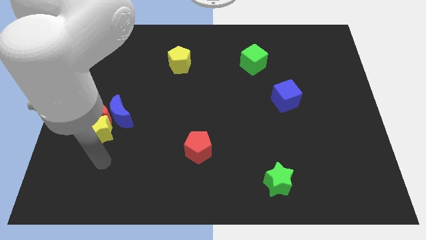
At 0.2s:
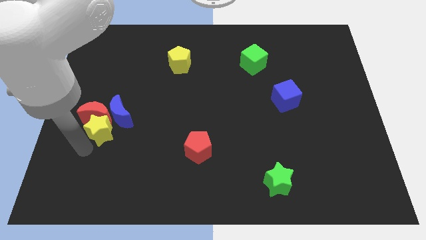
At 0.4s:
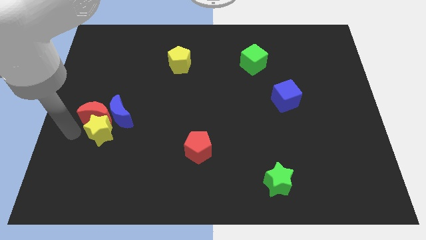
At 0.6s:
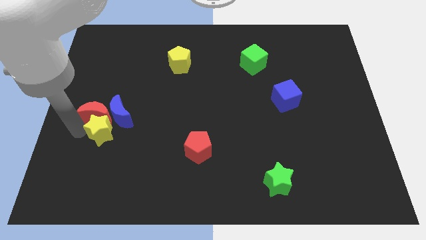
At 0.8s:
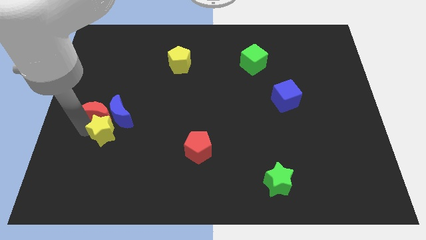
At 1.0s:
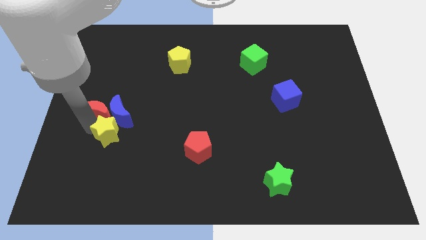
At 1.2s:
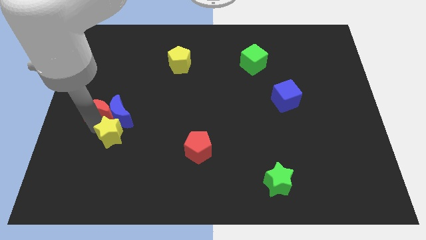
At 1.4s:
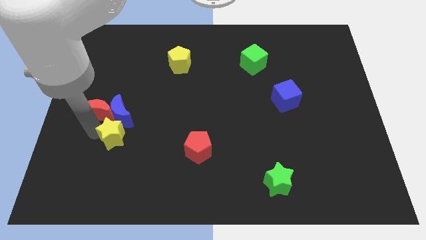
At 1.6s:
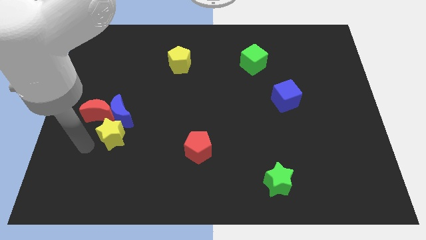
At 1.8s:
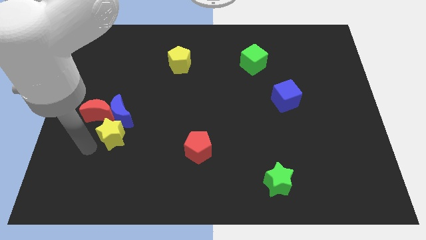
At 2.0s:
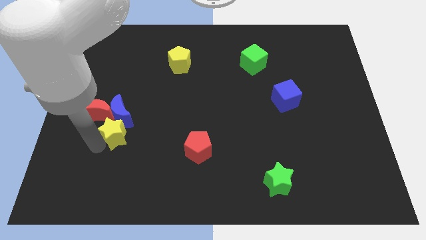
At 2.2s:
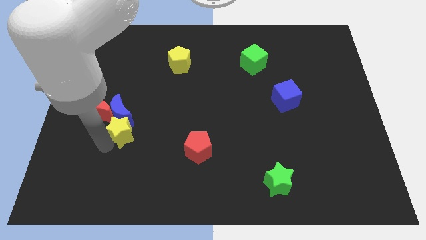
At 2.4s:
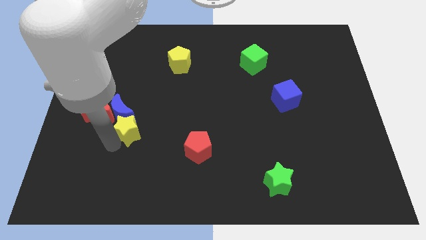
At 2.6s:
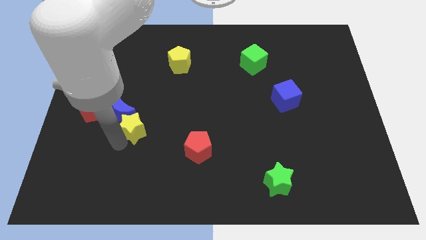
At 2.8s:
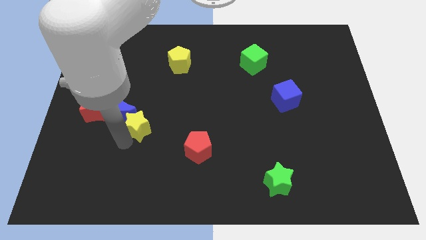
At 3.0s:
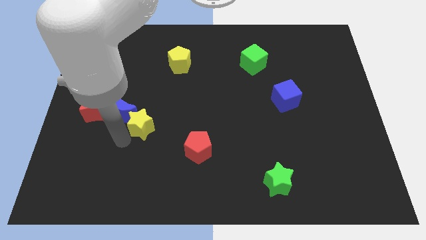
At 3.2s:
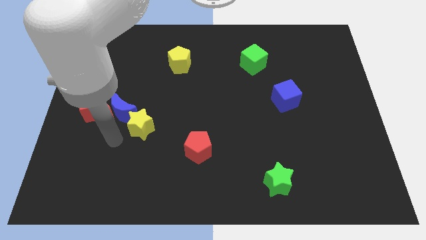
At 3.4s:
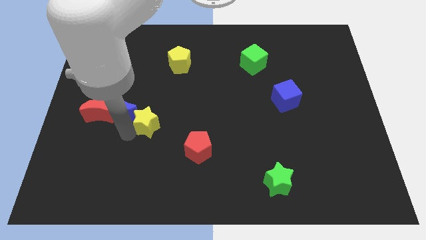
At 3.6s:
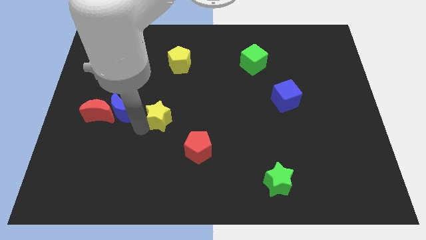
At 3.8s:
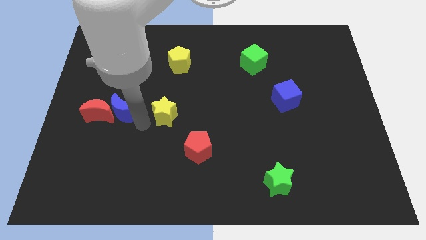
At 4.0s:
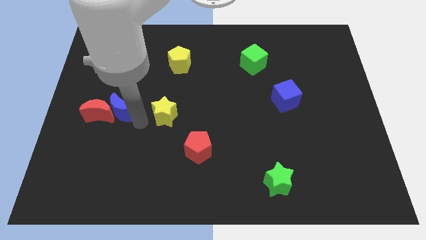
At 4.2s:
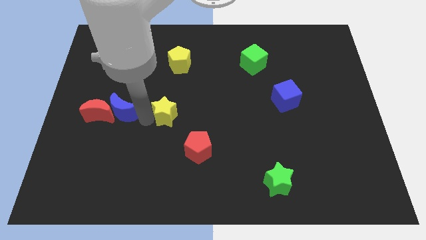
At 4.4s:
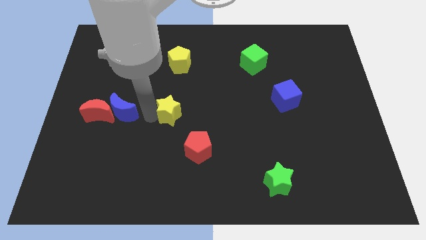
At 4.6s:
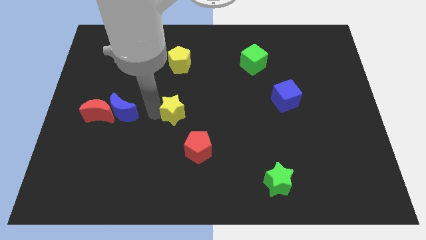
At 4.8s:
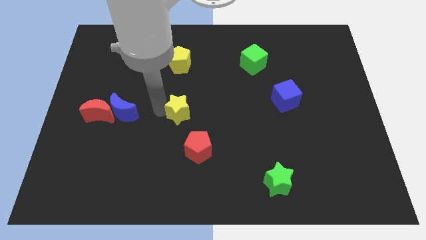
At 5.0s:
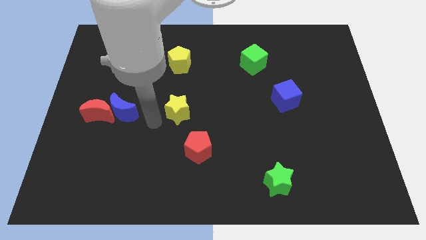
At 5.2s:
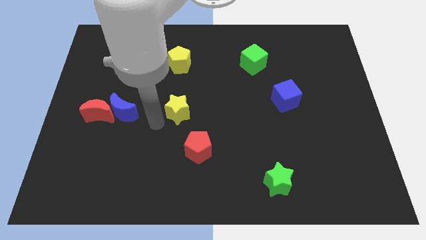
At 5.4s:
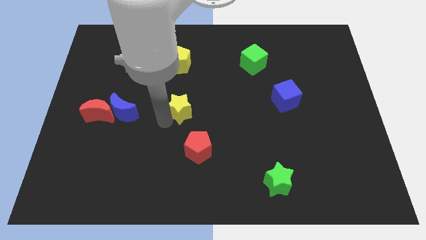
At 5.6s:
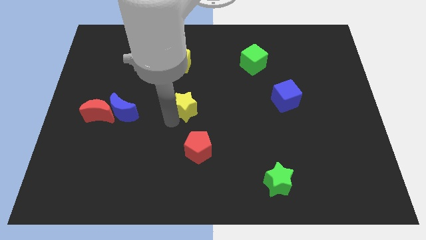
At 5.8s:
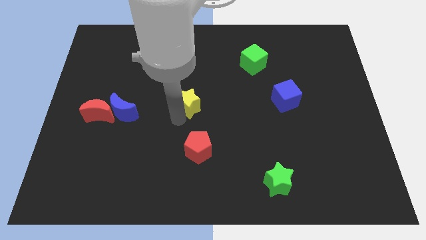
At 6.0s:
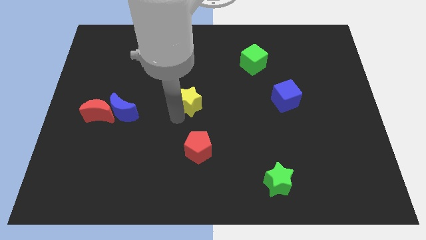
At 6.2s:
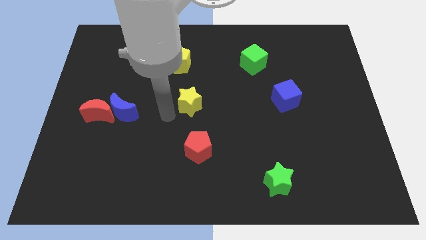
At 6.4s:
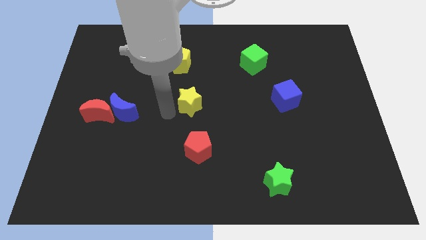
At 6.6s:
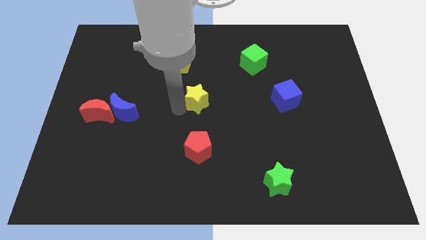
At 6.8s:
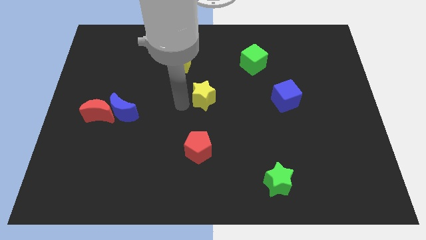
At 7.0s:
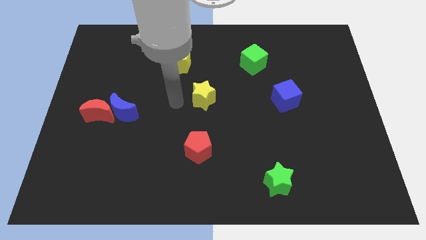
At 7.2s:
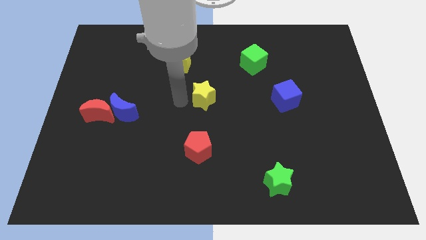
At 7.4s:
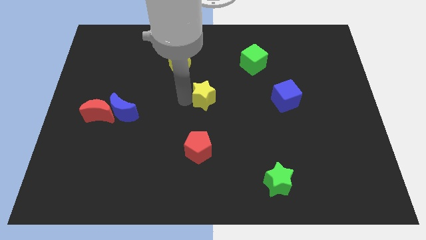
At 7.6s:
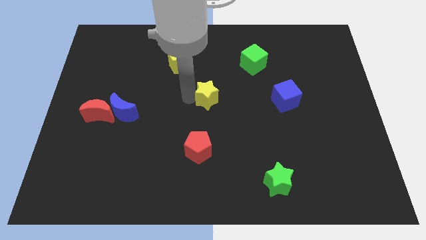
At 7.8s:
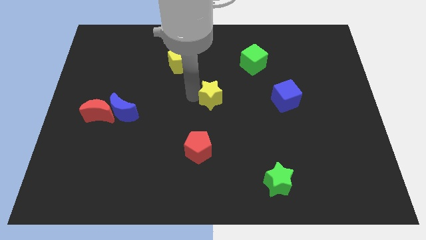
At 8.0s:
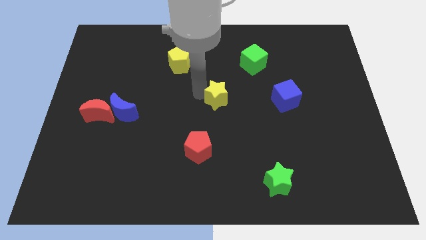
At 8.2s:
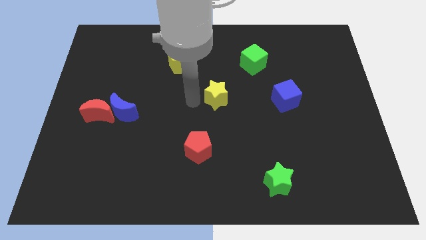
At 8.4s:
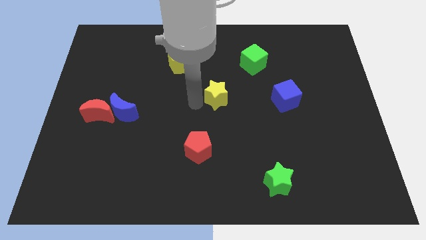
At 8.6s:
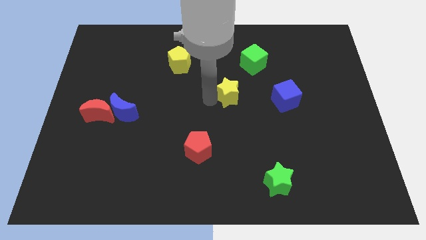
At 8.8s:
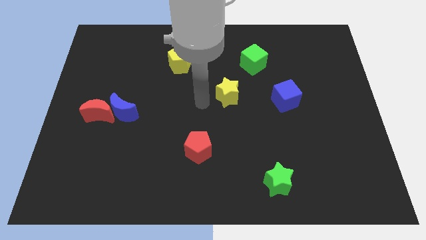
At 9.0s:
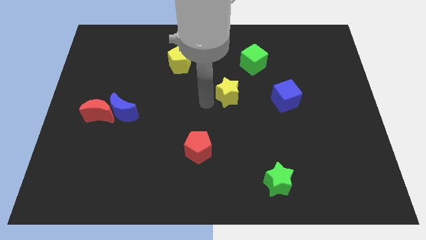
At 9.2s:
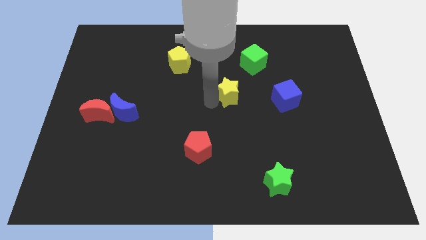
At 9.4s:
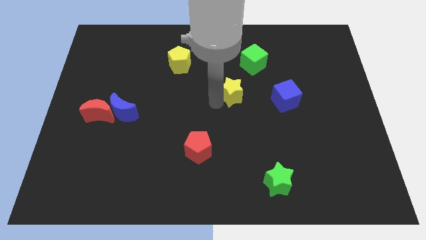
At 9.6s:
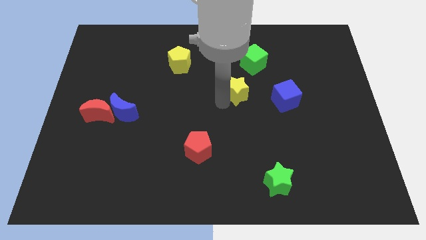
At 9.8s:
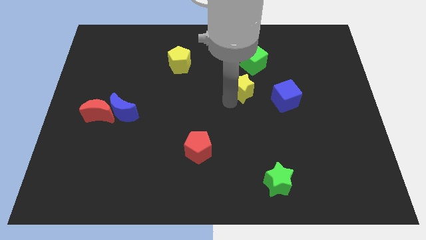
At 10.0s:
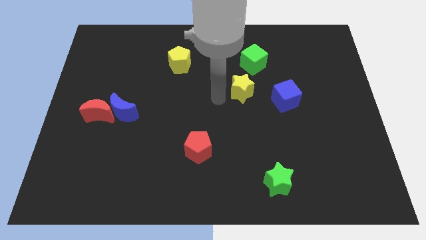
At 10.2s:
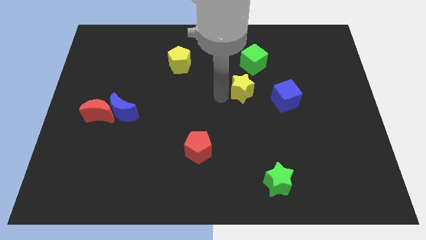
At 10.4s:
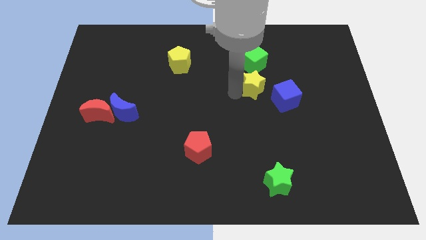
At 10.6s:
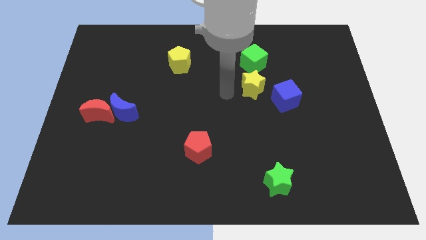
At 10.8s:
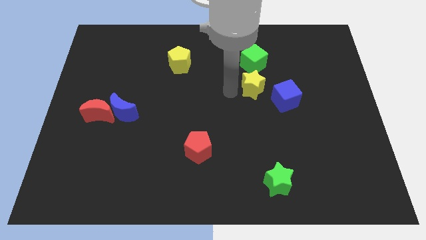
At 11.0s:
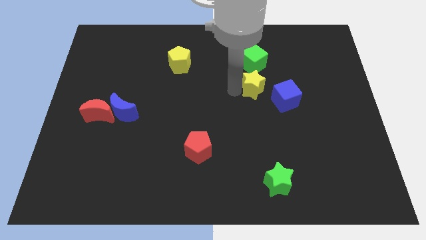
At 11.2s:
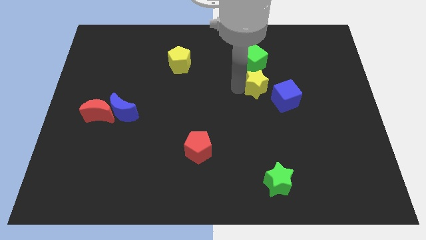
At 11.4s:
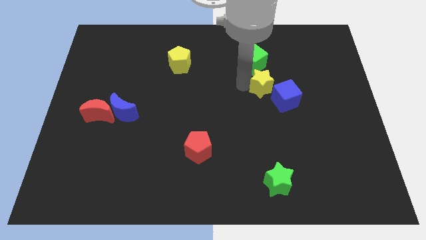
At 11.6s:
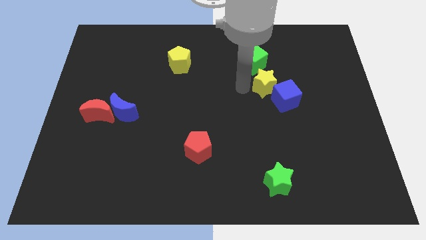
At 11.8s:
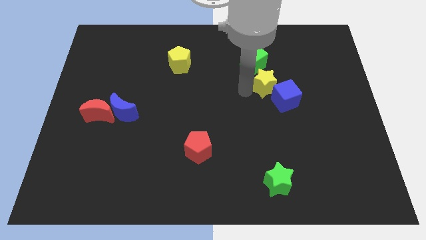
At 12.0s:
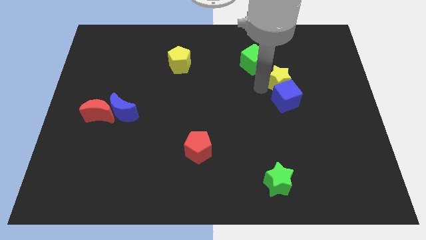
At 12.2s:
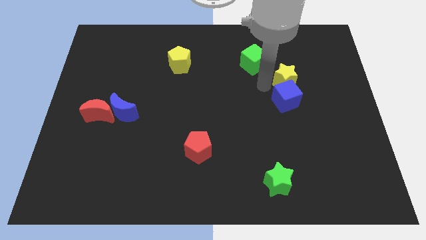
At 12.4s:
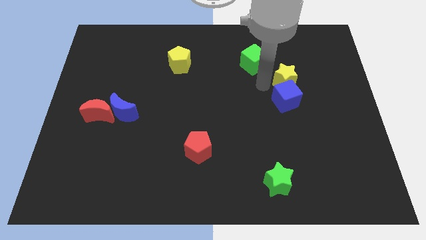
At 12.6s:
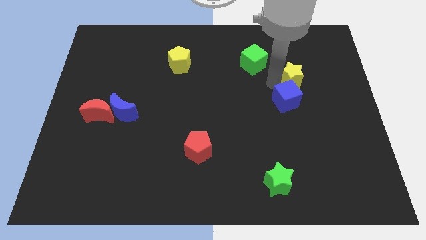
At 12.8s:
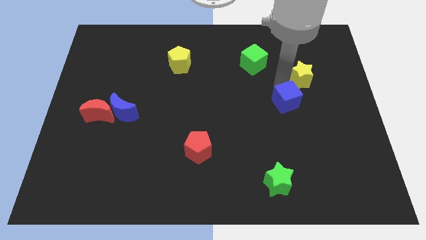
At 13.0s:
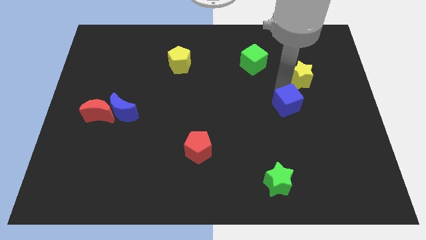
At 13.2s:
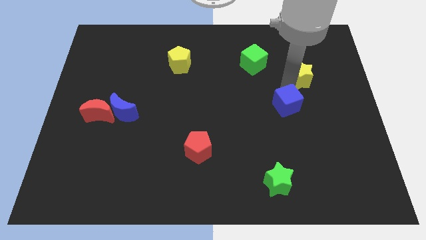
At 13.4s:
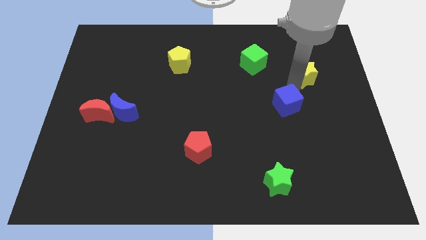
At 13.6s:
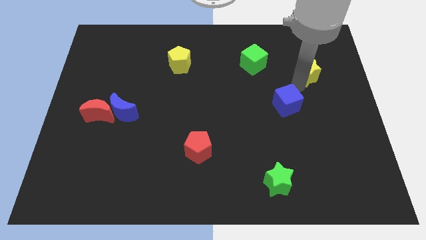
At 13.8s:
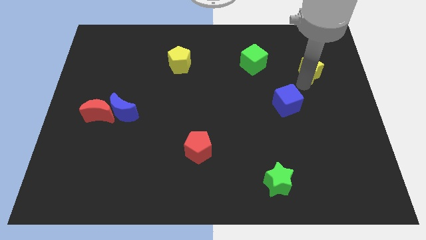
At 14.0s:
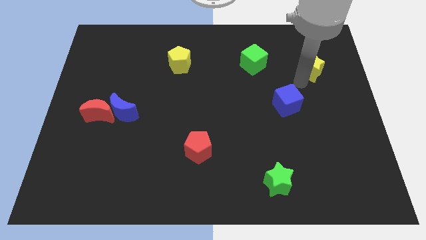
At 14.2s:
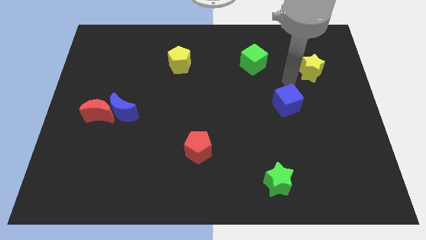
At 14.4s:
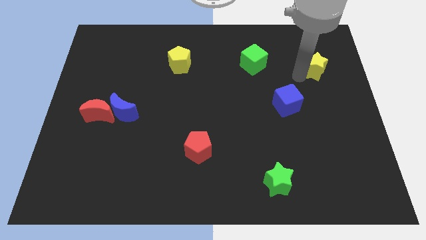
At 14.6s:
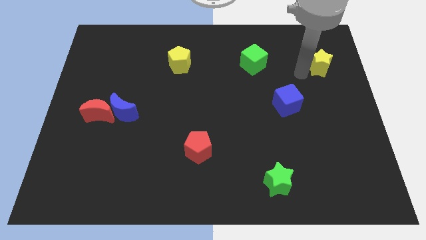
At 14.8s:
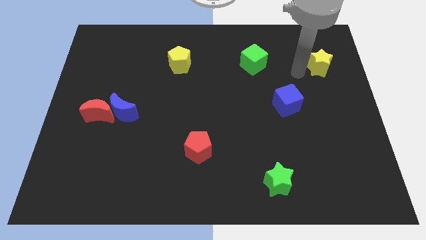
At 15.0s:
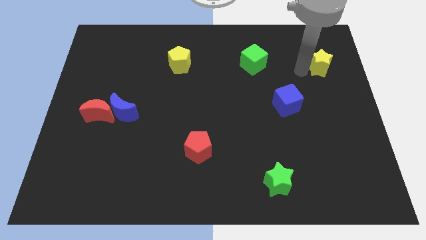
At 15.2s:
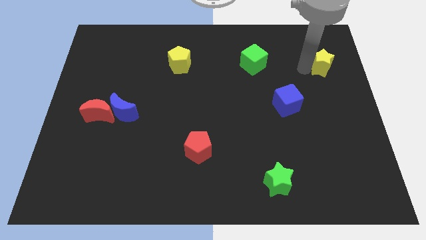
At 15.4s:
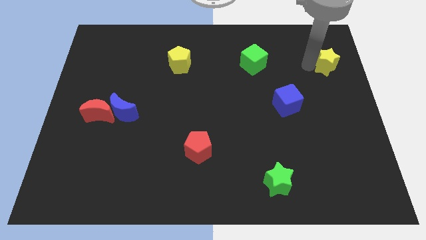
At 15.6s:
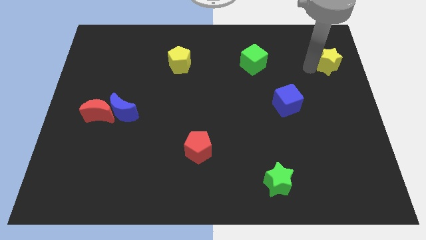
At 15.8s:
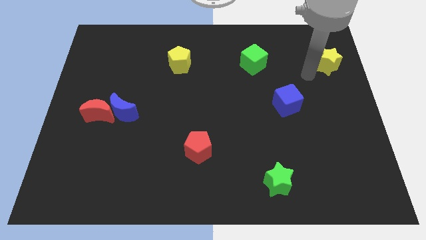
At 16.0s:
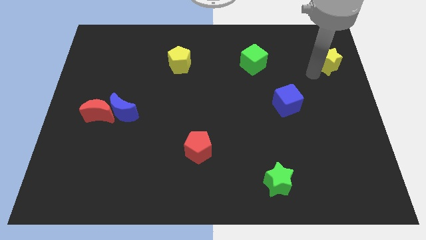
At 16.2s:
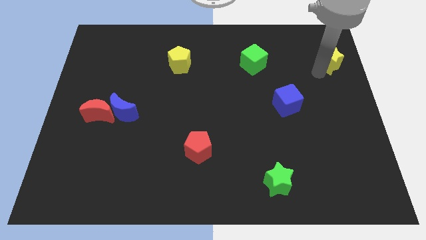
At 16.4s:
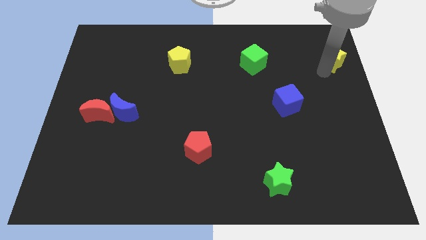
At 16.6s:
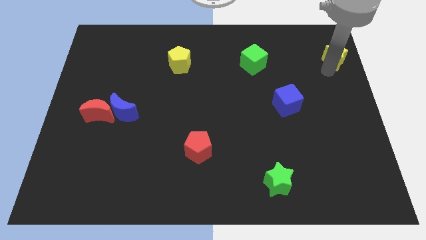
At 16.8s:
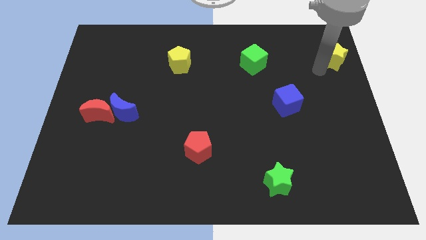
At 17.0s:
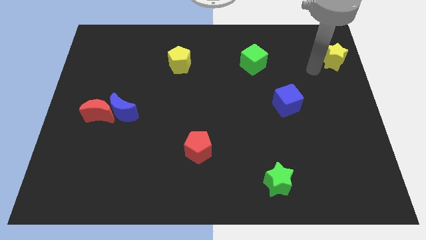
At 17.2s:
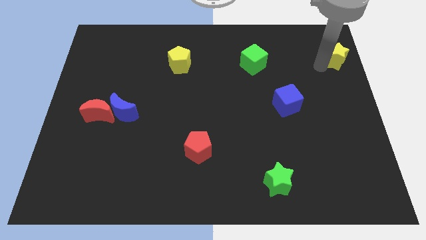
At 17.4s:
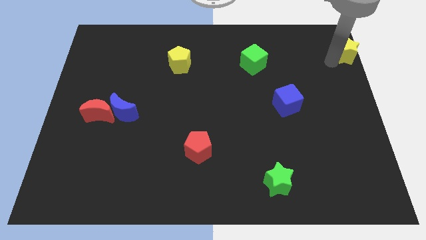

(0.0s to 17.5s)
put the yellow star to the upper right corner
